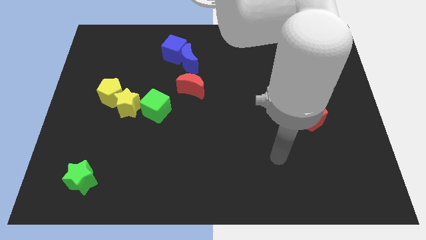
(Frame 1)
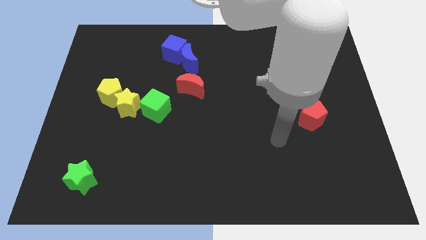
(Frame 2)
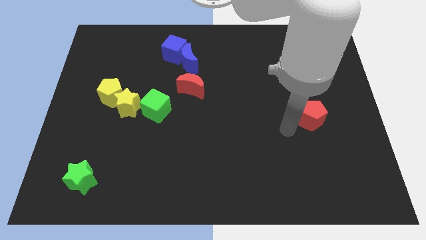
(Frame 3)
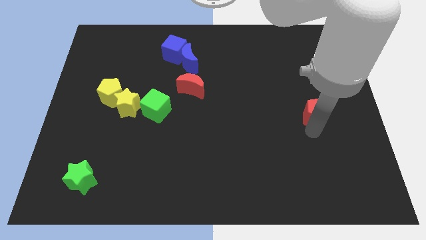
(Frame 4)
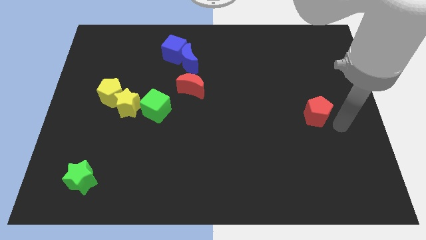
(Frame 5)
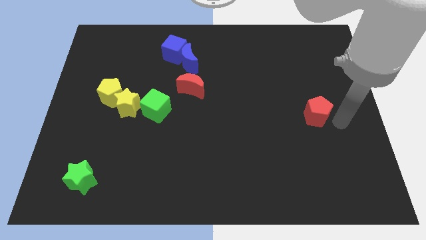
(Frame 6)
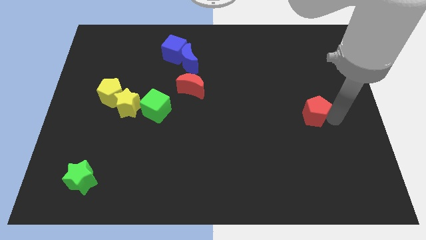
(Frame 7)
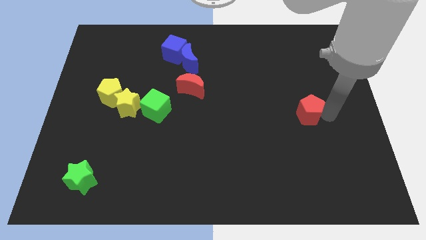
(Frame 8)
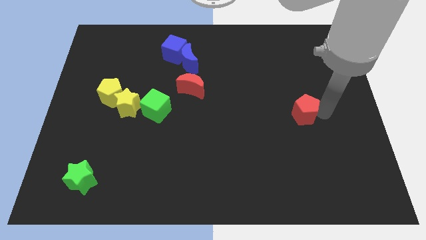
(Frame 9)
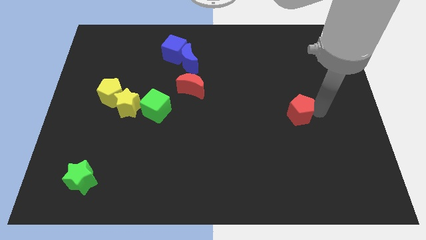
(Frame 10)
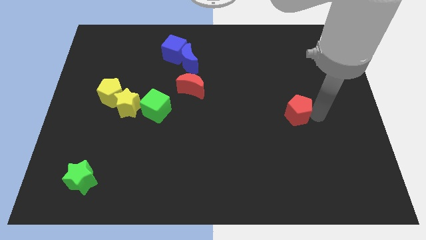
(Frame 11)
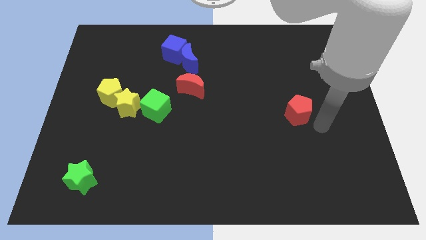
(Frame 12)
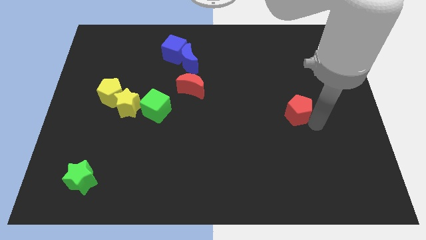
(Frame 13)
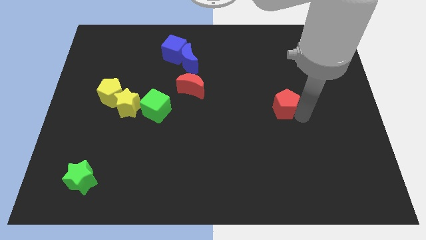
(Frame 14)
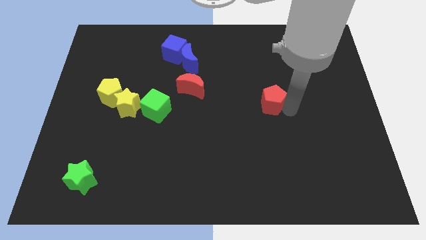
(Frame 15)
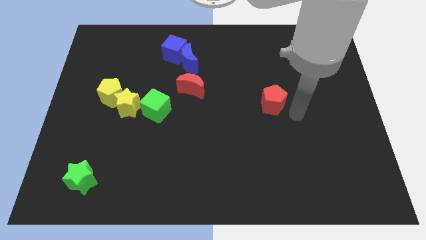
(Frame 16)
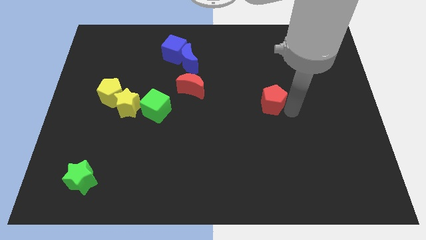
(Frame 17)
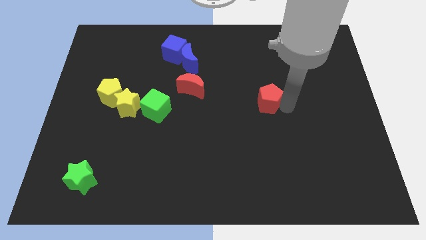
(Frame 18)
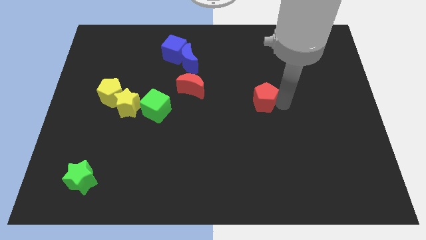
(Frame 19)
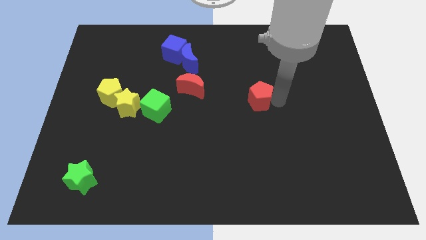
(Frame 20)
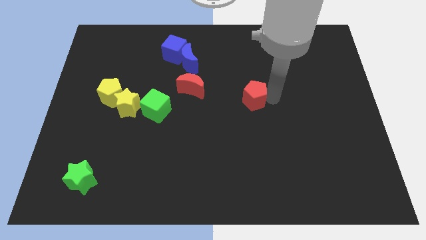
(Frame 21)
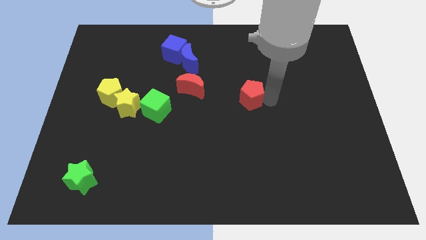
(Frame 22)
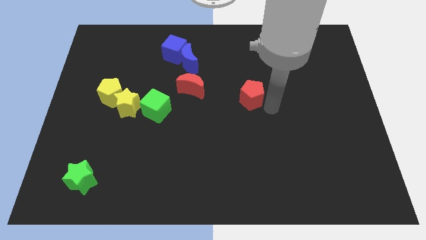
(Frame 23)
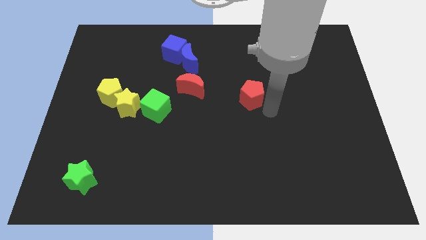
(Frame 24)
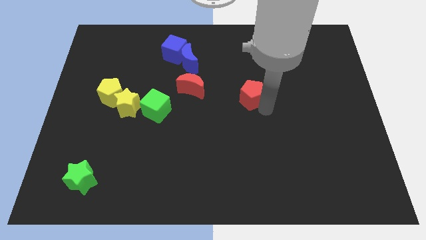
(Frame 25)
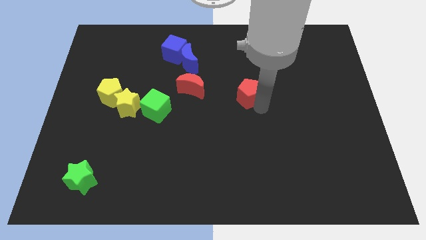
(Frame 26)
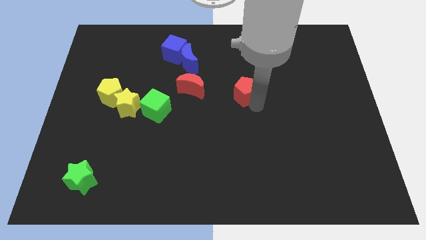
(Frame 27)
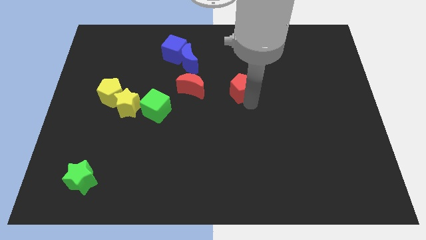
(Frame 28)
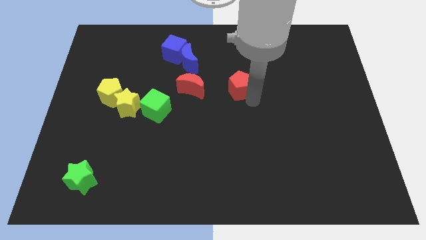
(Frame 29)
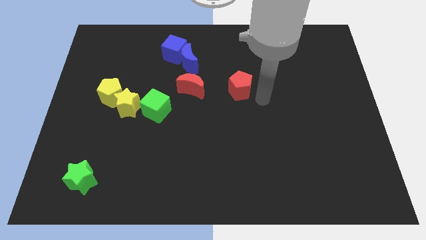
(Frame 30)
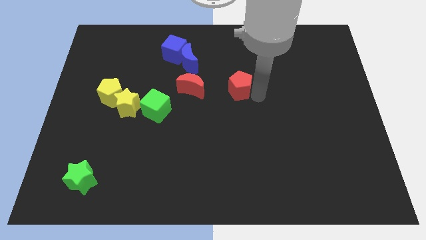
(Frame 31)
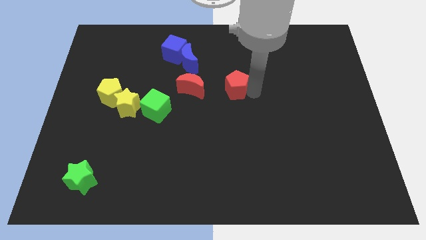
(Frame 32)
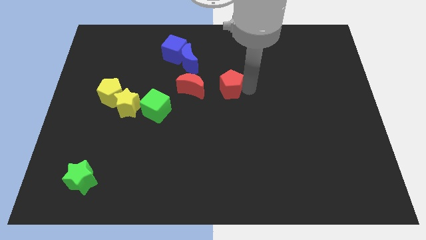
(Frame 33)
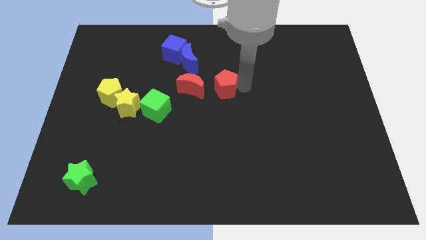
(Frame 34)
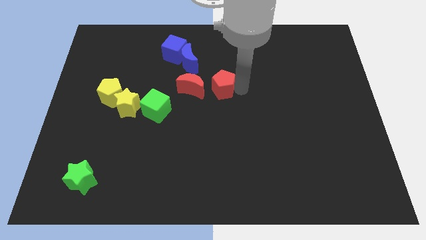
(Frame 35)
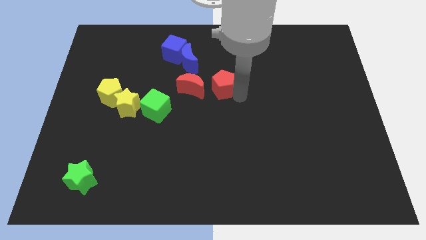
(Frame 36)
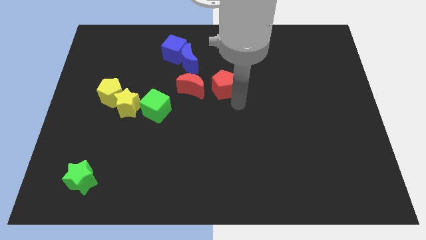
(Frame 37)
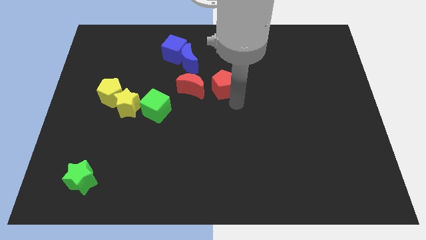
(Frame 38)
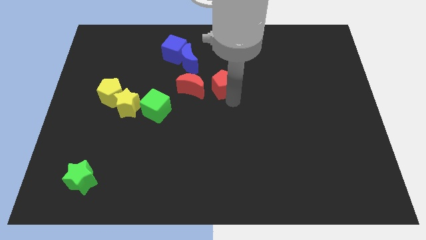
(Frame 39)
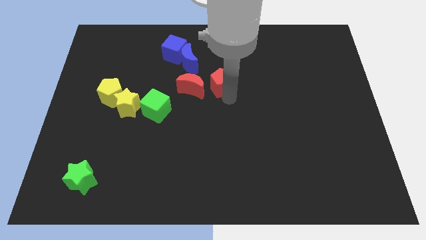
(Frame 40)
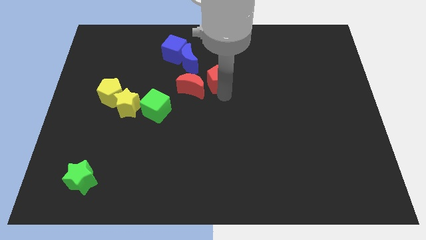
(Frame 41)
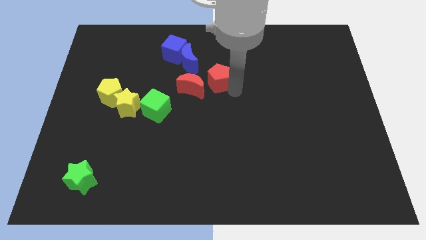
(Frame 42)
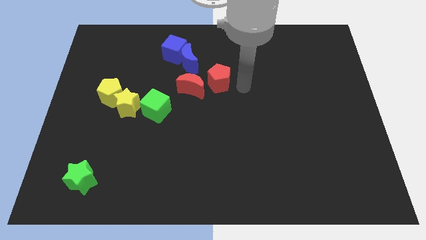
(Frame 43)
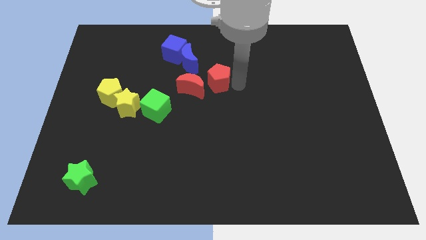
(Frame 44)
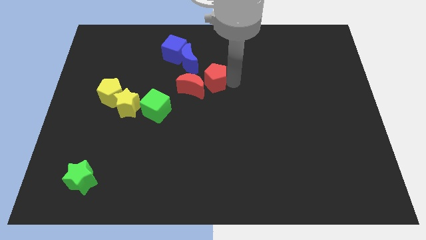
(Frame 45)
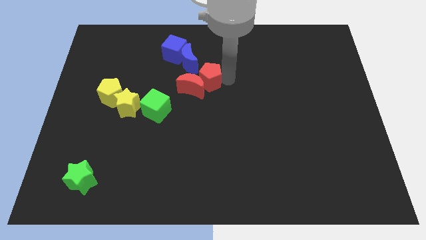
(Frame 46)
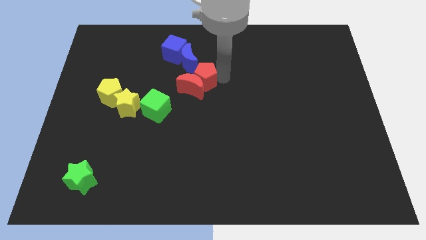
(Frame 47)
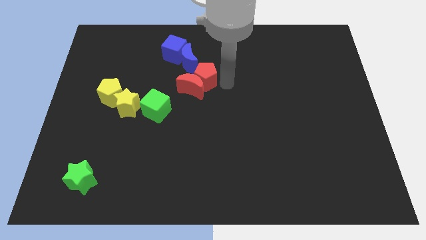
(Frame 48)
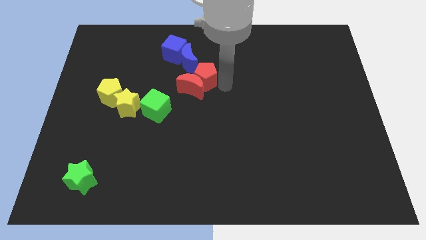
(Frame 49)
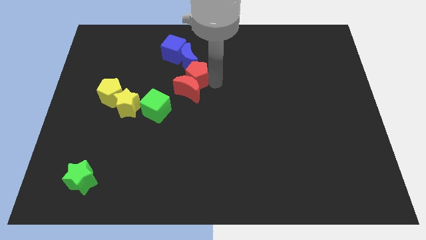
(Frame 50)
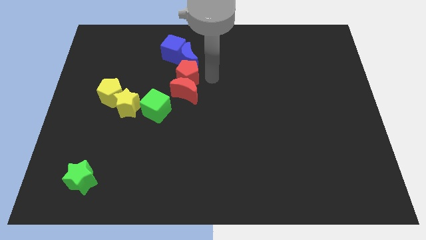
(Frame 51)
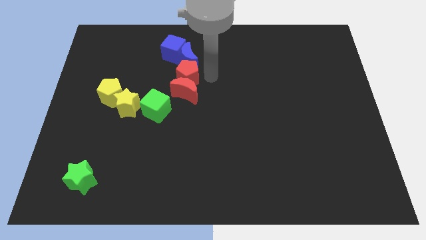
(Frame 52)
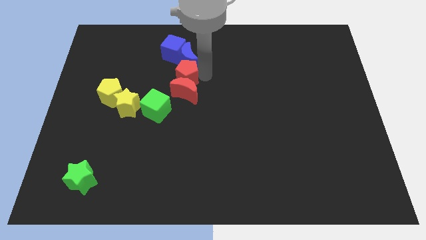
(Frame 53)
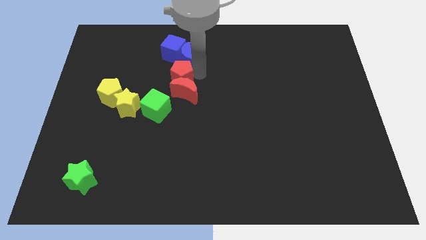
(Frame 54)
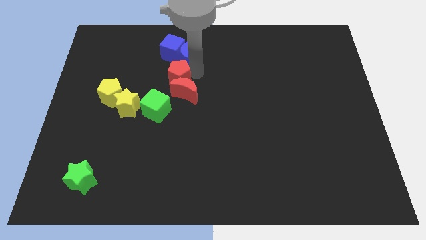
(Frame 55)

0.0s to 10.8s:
slide the red pentagon to the top of the green cube

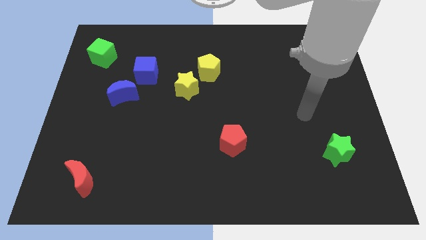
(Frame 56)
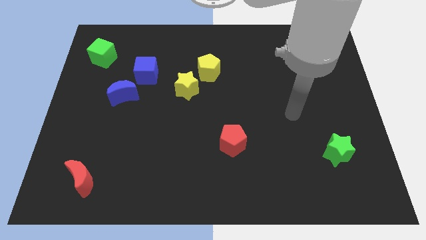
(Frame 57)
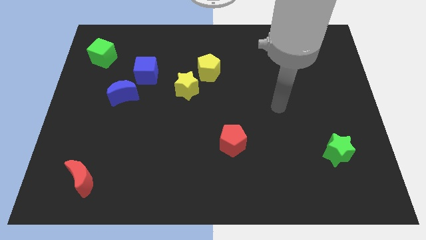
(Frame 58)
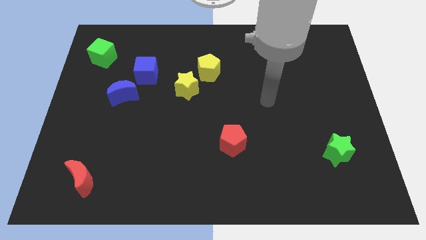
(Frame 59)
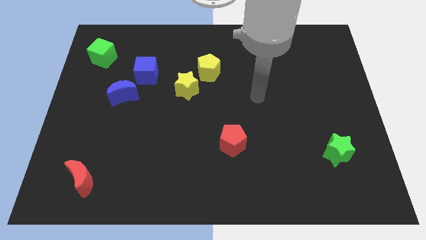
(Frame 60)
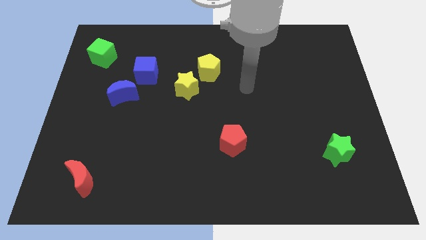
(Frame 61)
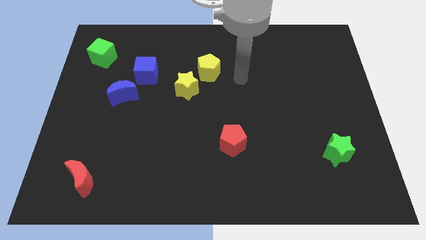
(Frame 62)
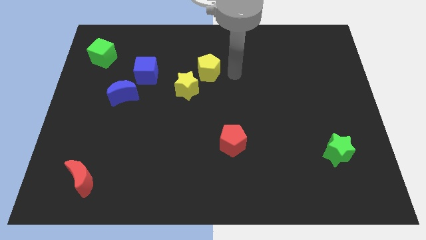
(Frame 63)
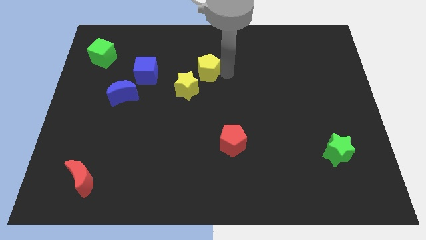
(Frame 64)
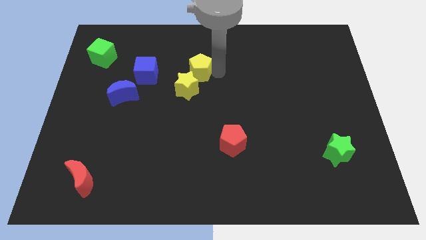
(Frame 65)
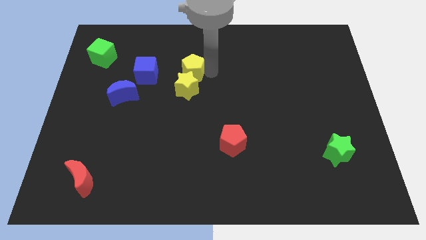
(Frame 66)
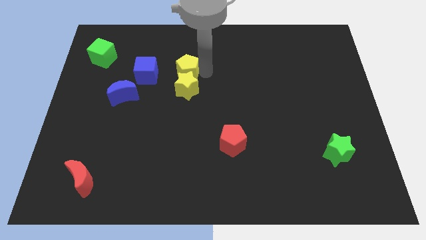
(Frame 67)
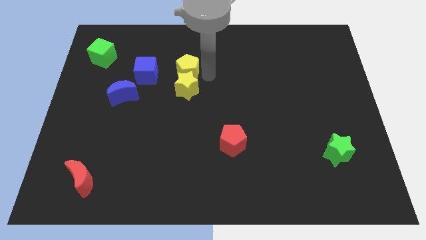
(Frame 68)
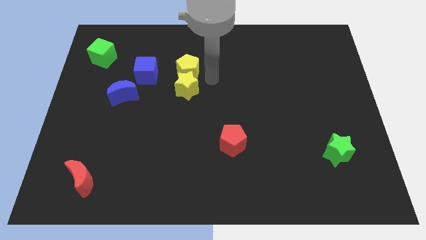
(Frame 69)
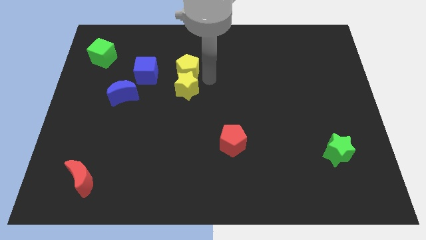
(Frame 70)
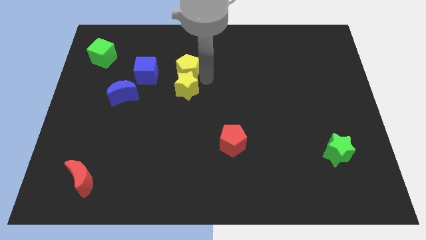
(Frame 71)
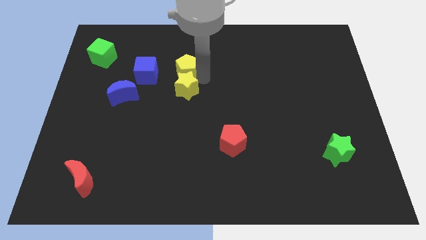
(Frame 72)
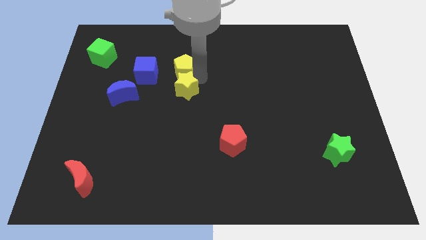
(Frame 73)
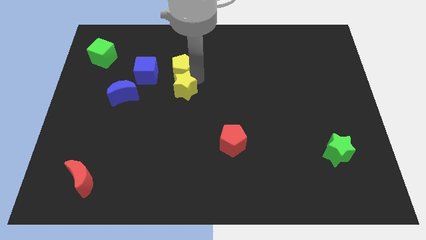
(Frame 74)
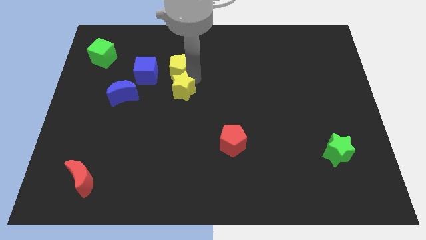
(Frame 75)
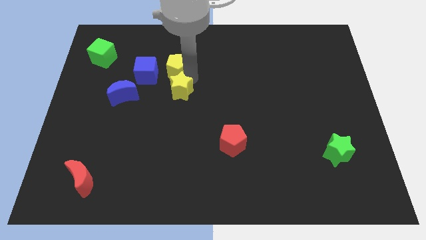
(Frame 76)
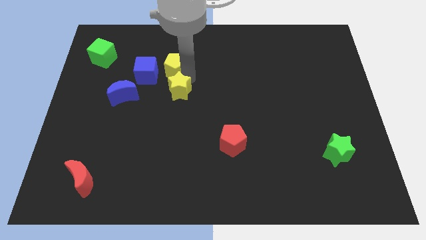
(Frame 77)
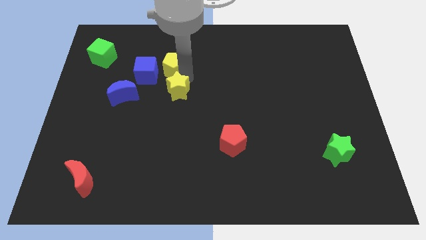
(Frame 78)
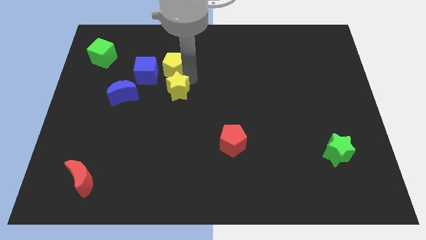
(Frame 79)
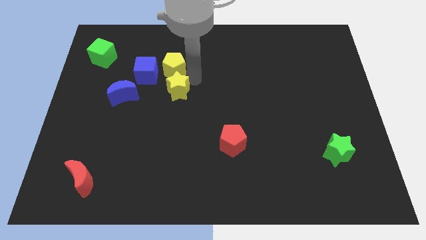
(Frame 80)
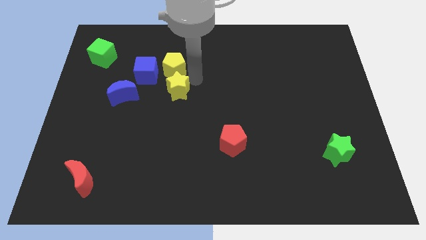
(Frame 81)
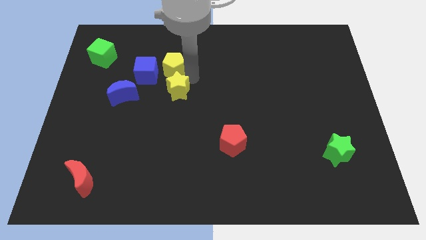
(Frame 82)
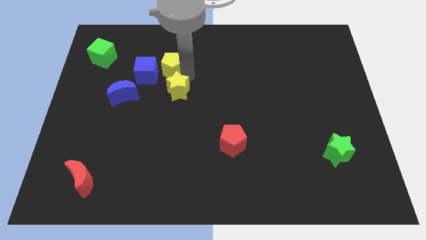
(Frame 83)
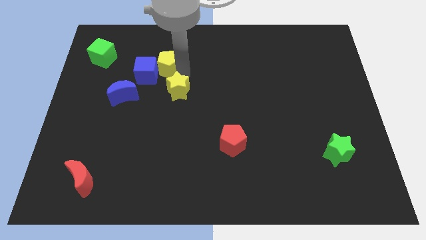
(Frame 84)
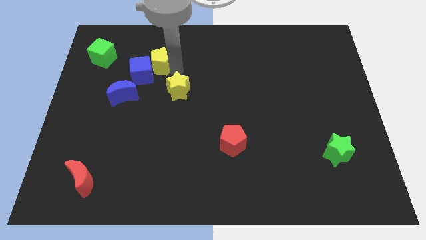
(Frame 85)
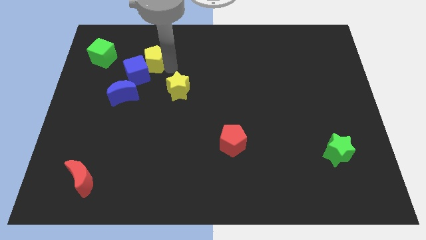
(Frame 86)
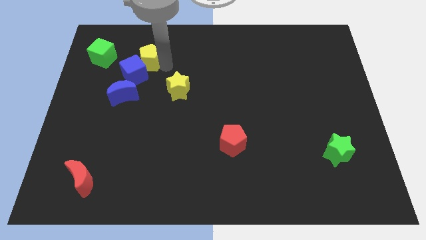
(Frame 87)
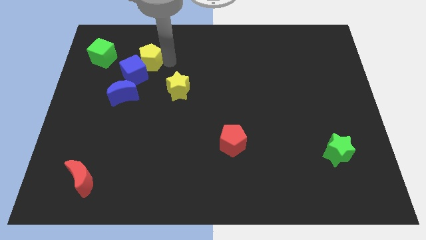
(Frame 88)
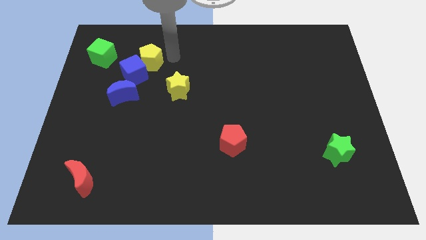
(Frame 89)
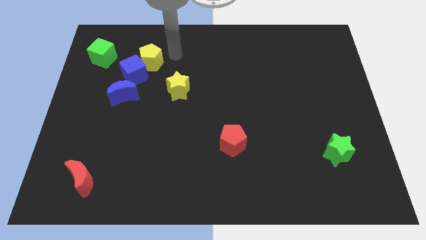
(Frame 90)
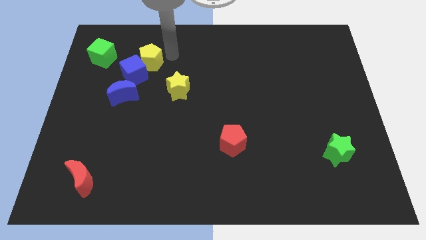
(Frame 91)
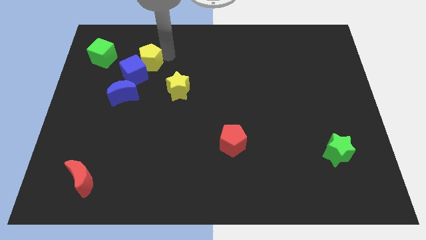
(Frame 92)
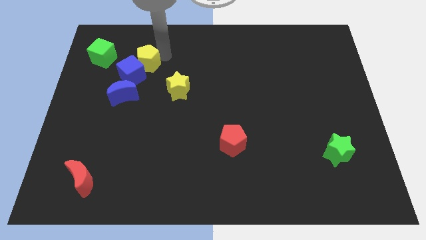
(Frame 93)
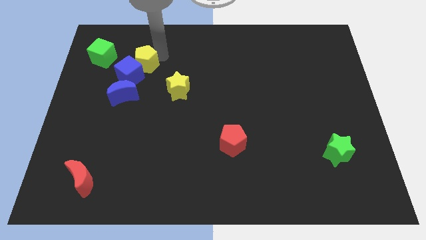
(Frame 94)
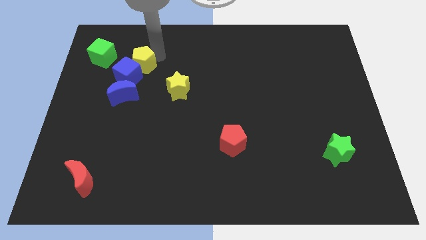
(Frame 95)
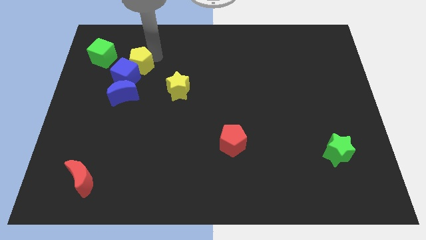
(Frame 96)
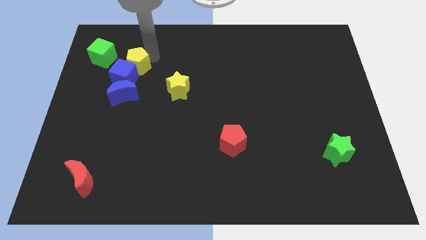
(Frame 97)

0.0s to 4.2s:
move the yellow pentagon to the bottom right side of the green cube
